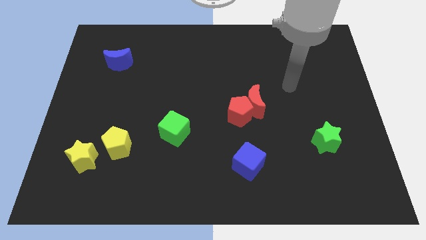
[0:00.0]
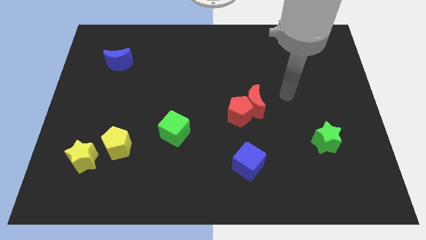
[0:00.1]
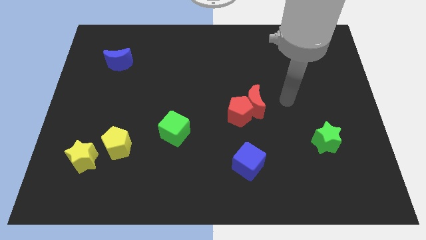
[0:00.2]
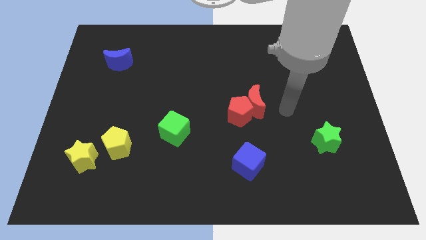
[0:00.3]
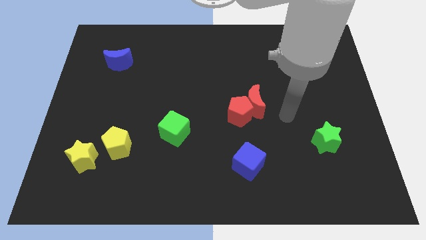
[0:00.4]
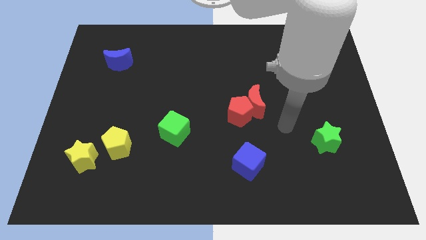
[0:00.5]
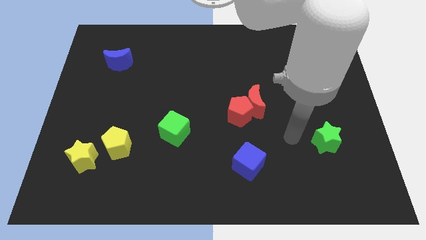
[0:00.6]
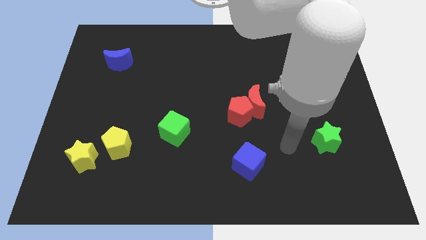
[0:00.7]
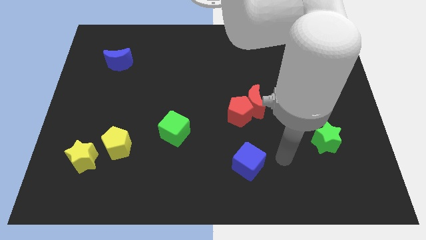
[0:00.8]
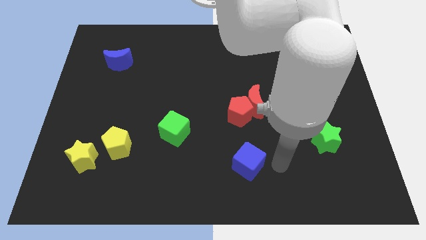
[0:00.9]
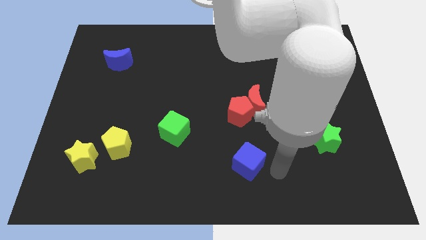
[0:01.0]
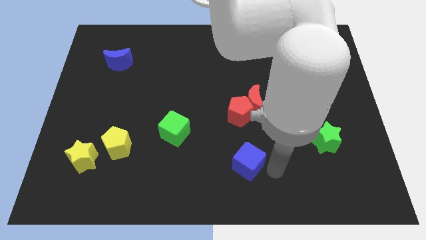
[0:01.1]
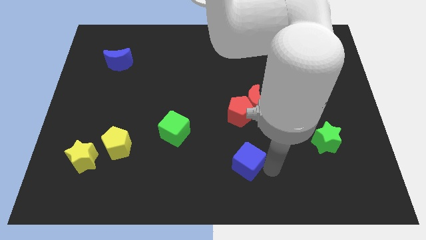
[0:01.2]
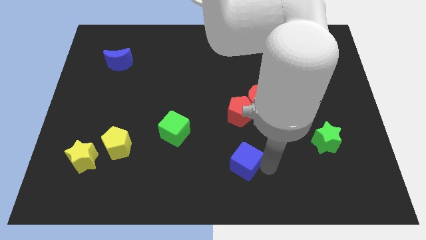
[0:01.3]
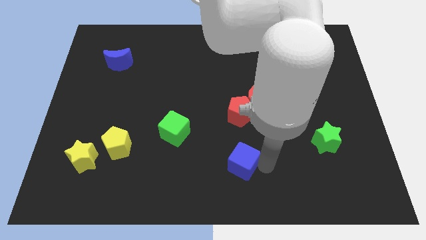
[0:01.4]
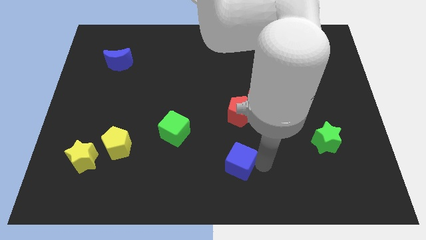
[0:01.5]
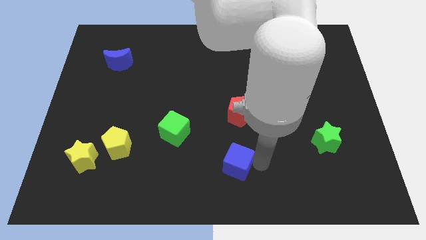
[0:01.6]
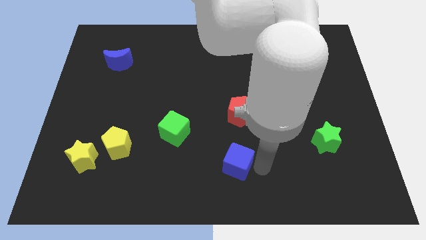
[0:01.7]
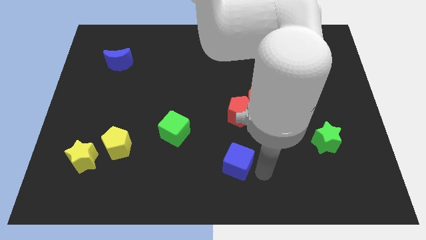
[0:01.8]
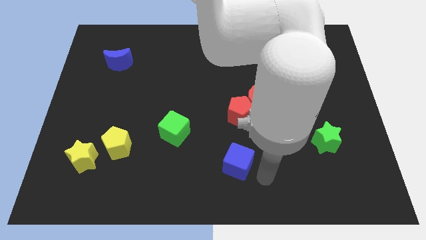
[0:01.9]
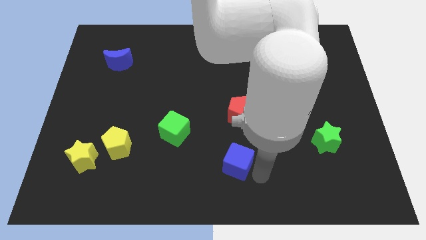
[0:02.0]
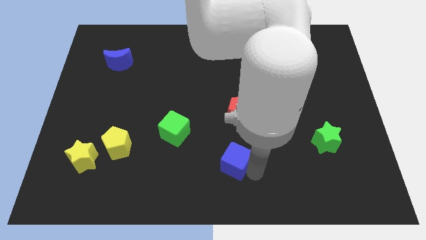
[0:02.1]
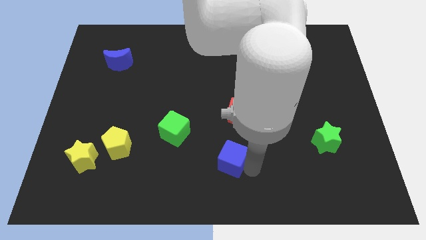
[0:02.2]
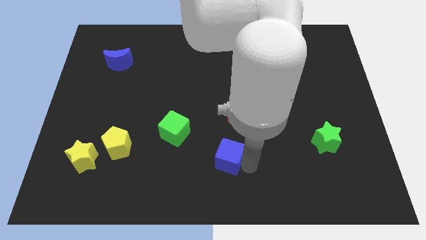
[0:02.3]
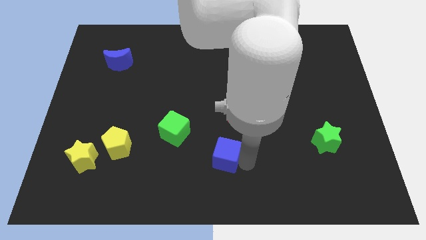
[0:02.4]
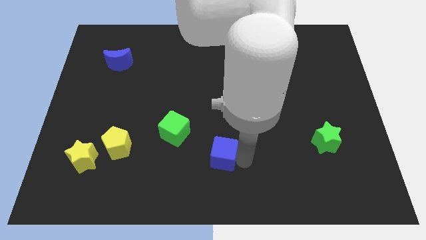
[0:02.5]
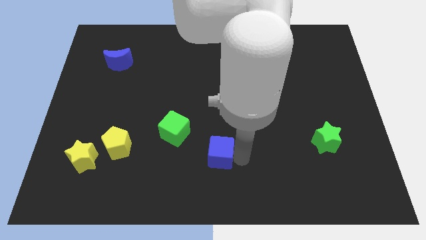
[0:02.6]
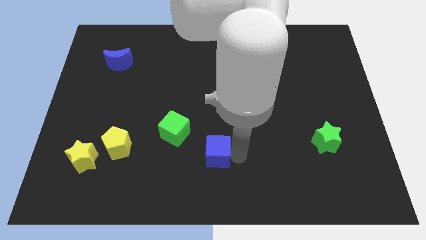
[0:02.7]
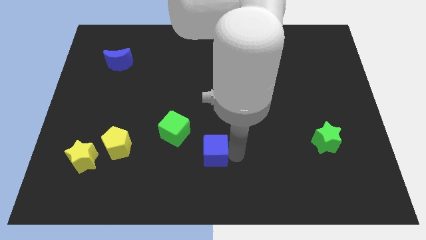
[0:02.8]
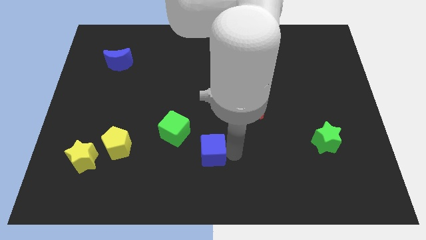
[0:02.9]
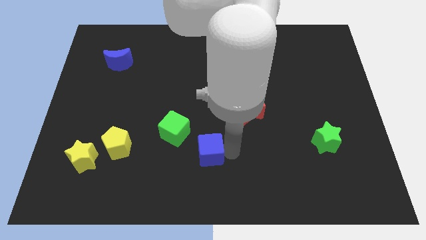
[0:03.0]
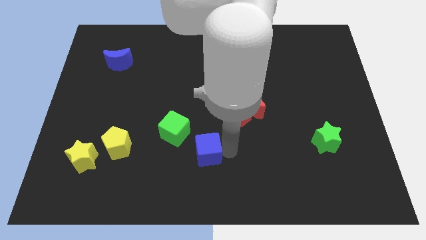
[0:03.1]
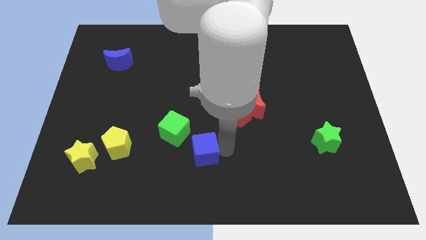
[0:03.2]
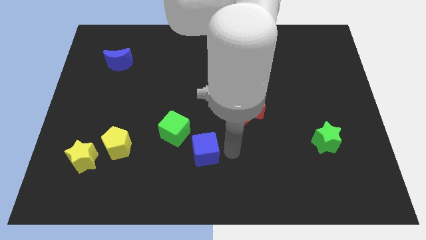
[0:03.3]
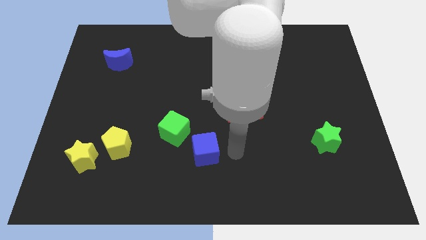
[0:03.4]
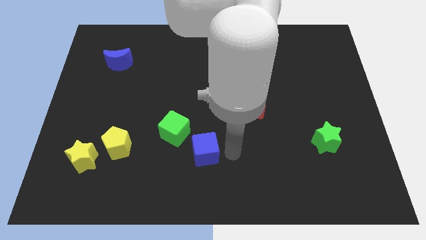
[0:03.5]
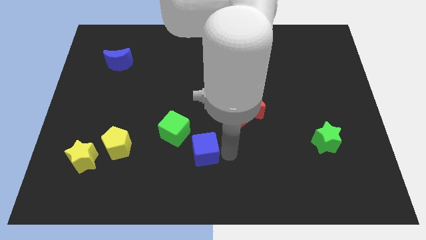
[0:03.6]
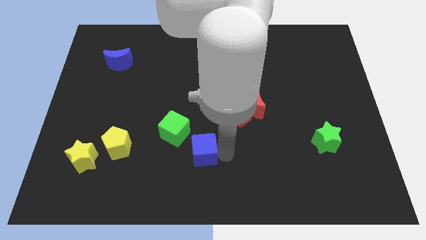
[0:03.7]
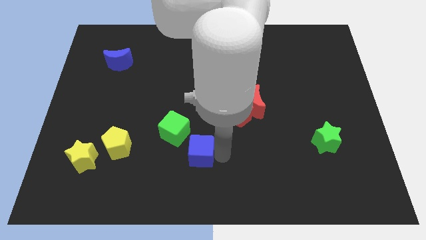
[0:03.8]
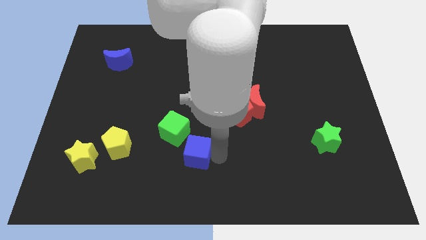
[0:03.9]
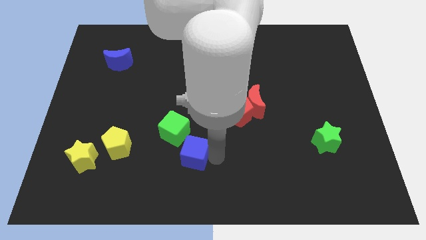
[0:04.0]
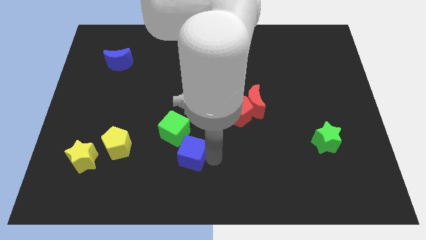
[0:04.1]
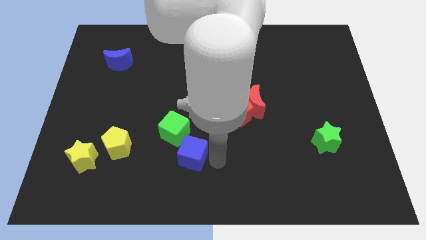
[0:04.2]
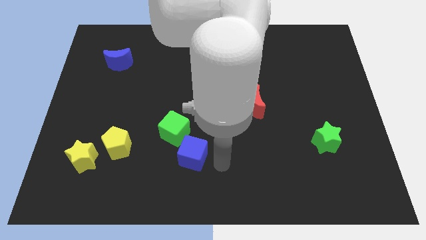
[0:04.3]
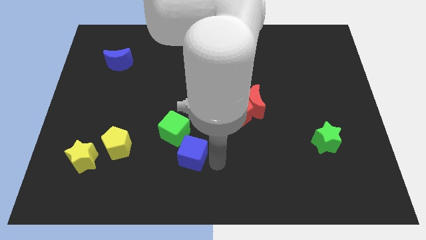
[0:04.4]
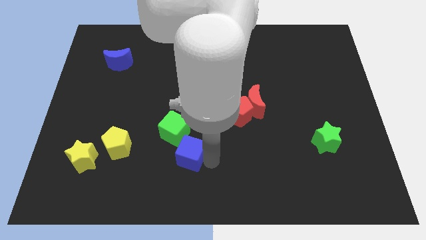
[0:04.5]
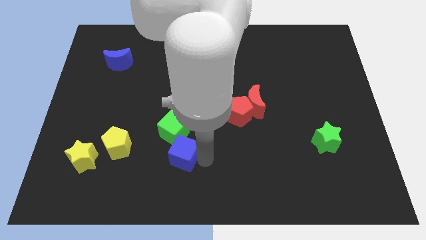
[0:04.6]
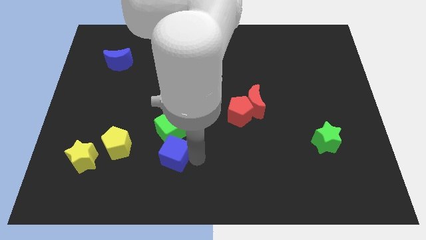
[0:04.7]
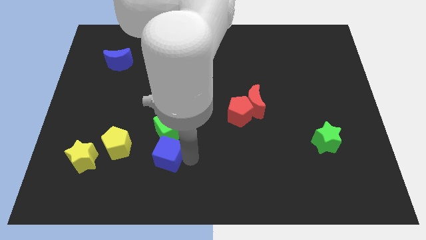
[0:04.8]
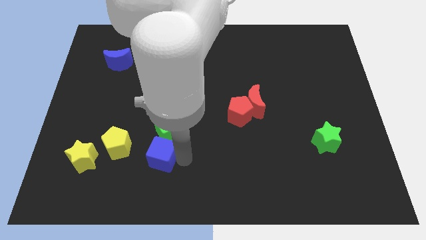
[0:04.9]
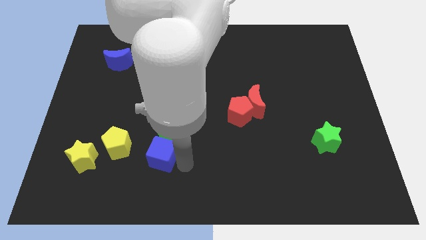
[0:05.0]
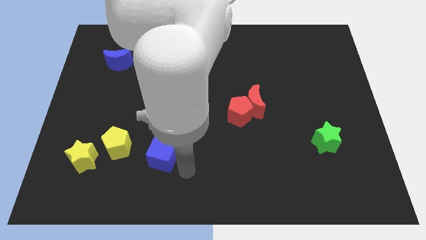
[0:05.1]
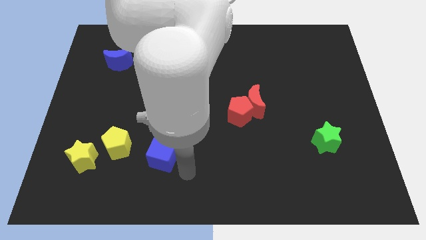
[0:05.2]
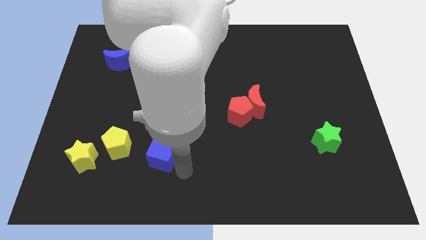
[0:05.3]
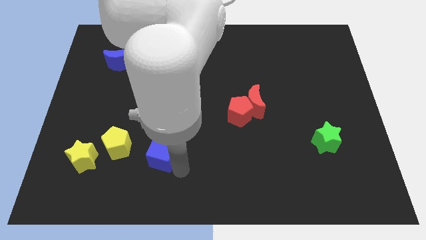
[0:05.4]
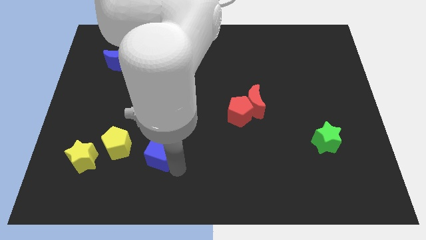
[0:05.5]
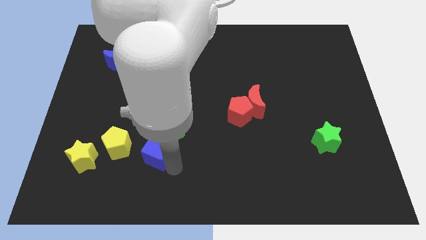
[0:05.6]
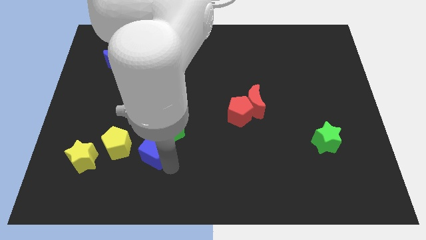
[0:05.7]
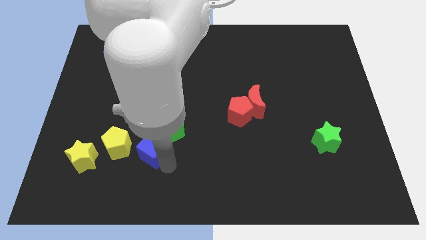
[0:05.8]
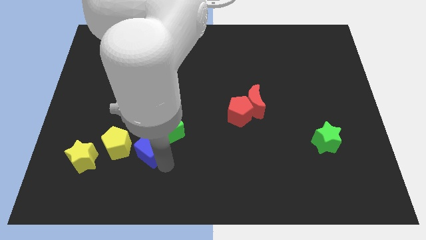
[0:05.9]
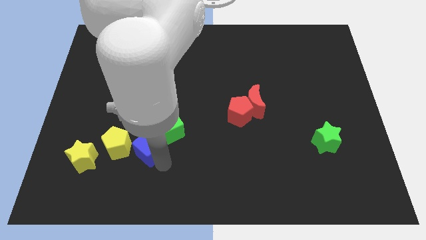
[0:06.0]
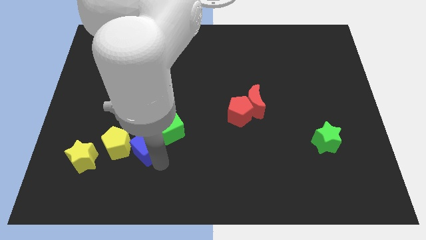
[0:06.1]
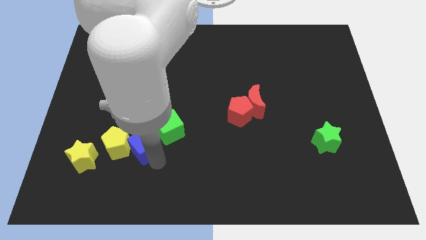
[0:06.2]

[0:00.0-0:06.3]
slide the blue cube close to the yellow pentagon
